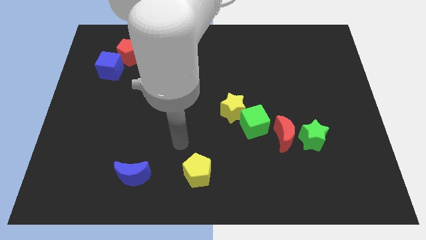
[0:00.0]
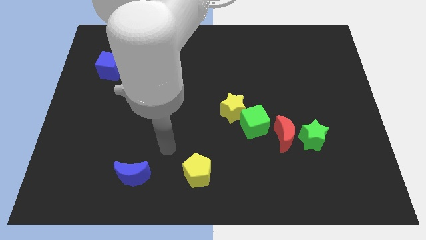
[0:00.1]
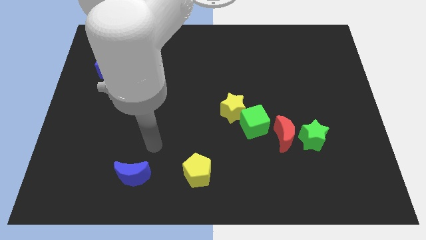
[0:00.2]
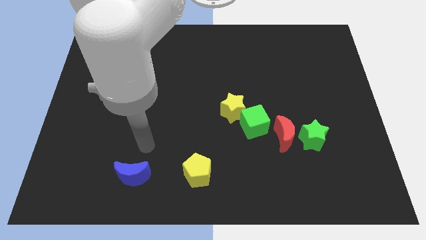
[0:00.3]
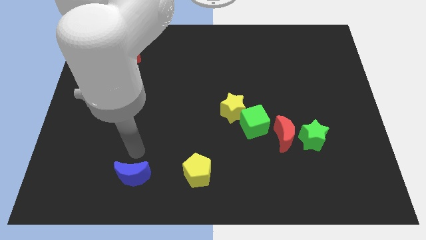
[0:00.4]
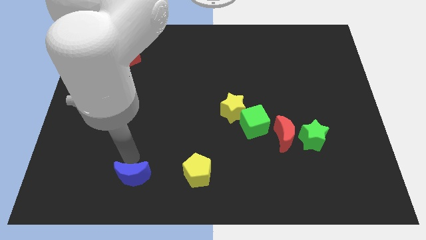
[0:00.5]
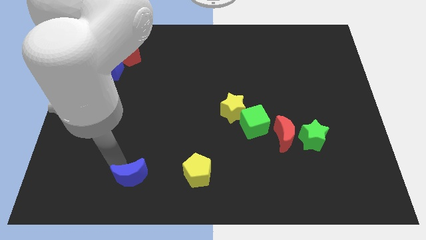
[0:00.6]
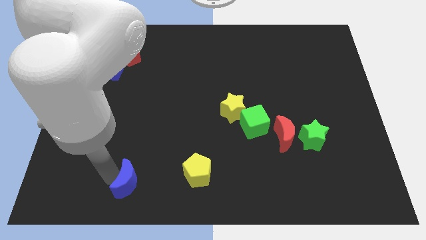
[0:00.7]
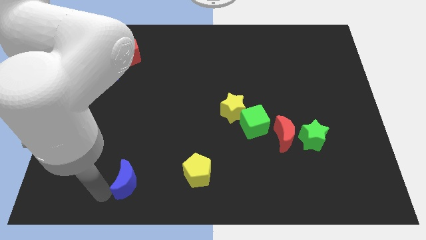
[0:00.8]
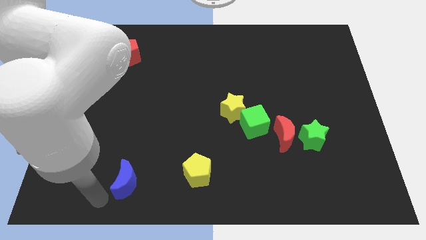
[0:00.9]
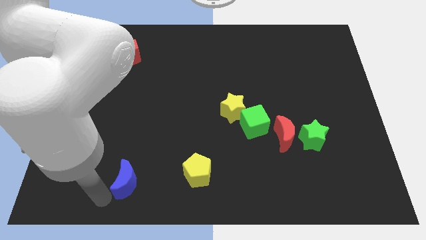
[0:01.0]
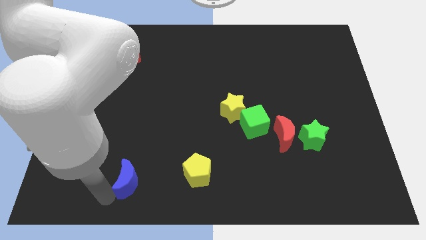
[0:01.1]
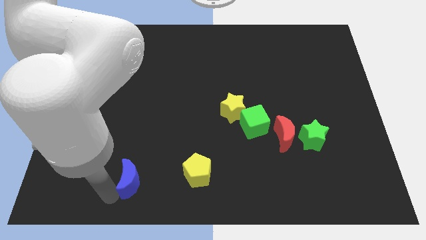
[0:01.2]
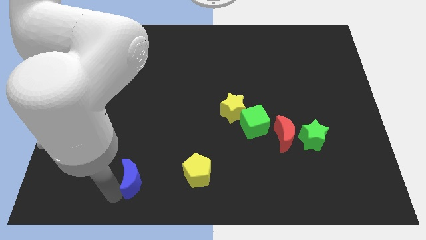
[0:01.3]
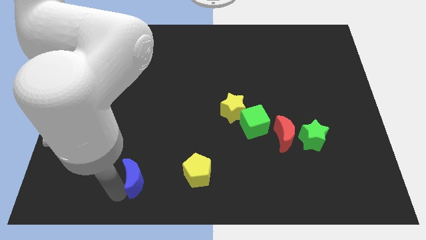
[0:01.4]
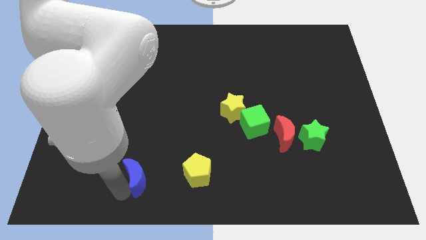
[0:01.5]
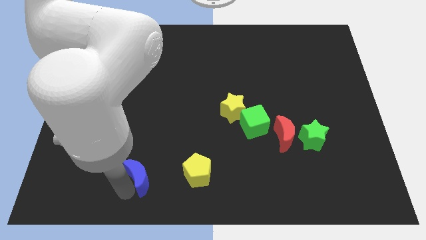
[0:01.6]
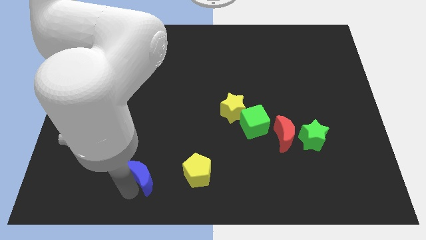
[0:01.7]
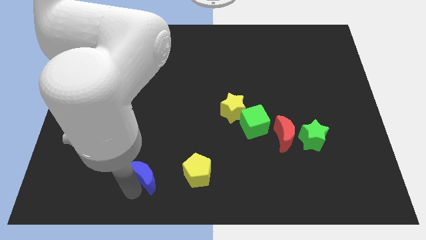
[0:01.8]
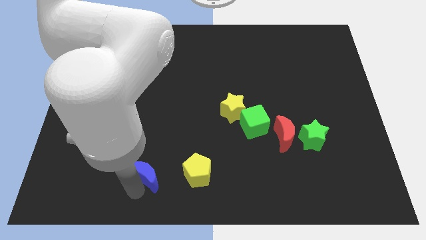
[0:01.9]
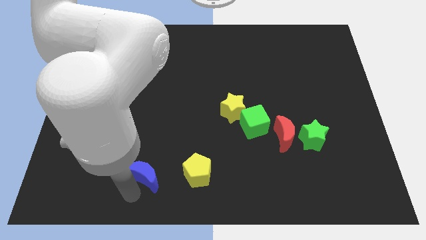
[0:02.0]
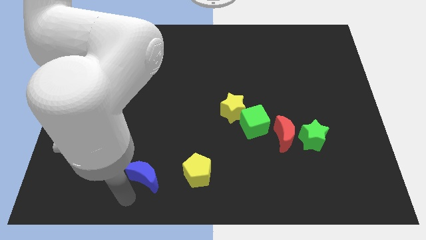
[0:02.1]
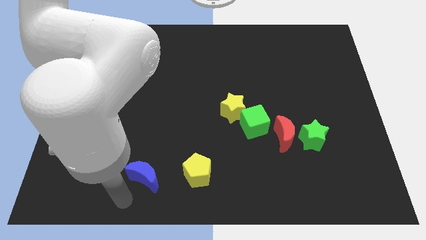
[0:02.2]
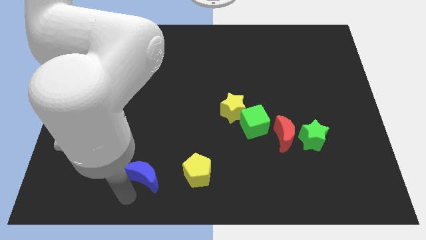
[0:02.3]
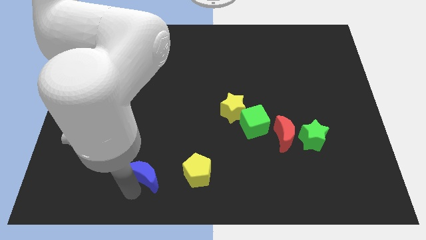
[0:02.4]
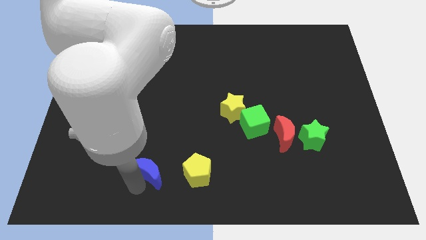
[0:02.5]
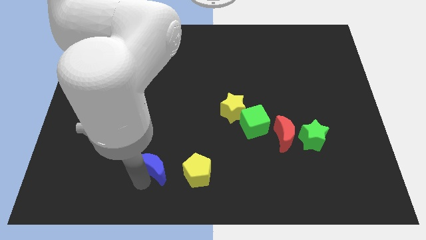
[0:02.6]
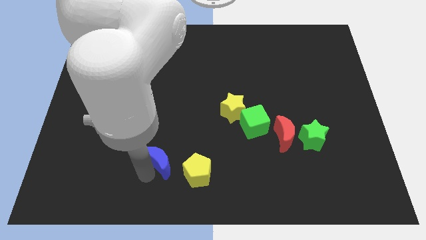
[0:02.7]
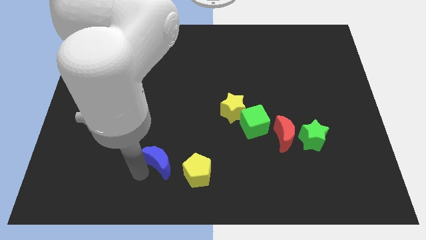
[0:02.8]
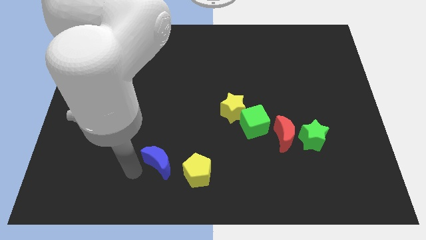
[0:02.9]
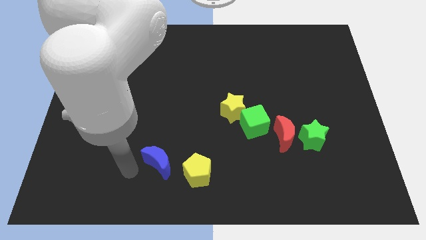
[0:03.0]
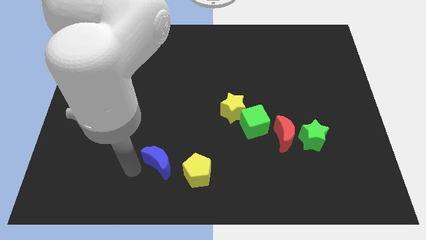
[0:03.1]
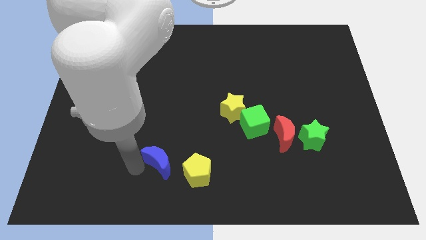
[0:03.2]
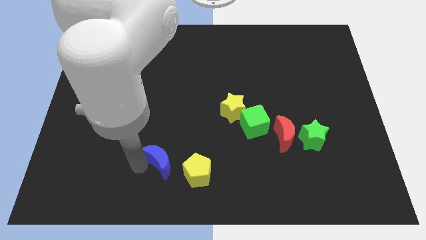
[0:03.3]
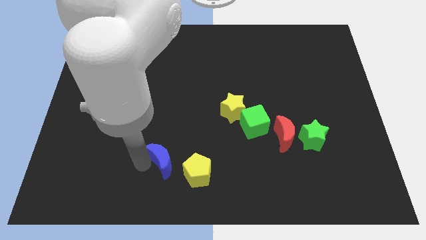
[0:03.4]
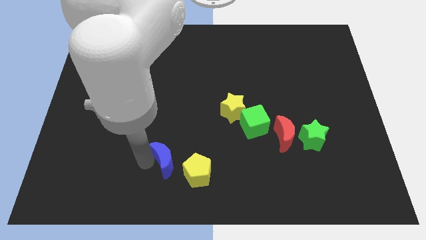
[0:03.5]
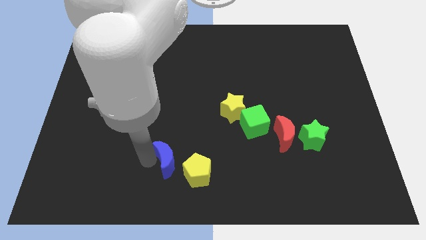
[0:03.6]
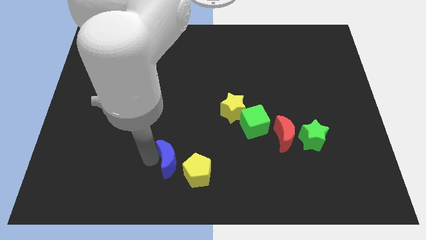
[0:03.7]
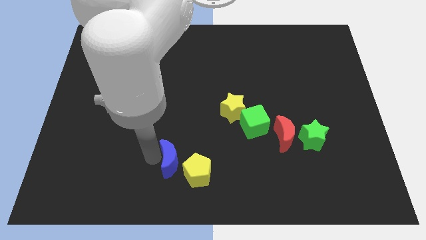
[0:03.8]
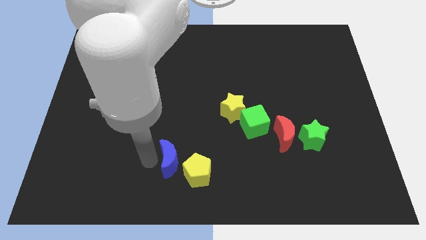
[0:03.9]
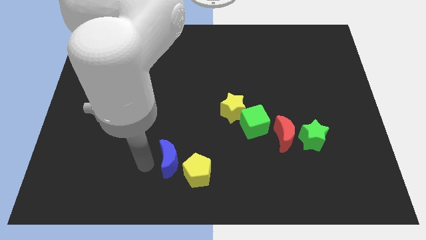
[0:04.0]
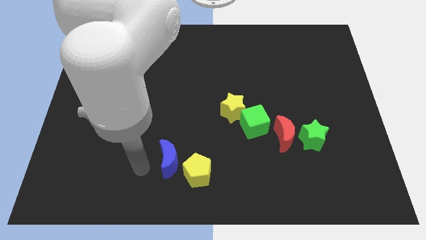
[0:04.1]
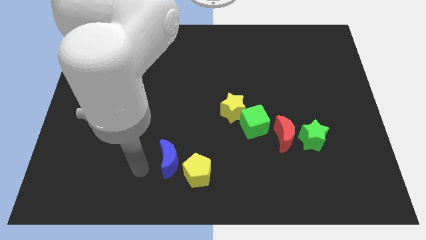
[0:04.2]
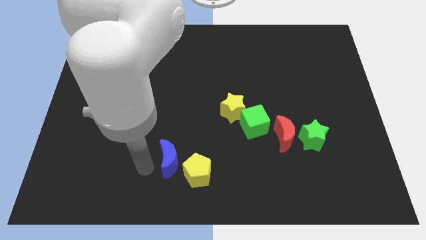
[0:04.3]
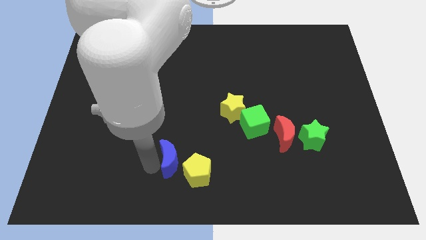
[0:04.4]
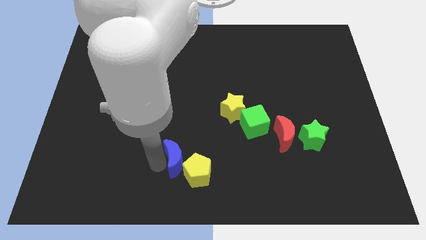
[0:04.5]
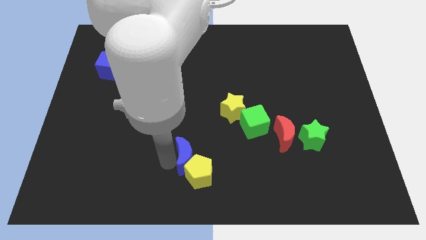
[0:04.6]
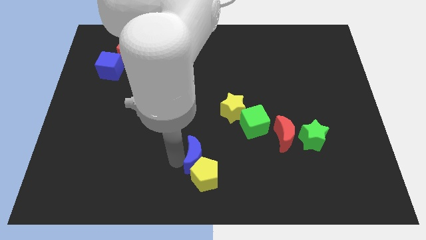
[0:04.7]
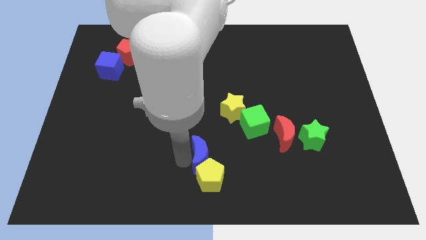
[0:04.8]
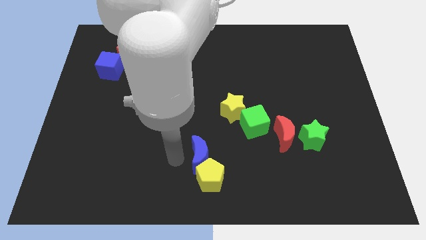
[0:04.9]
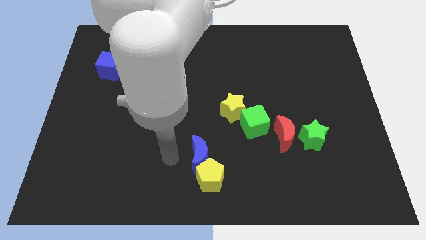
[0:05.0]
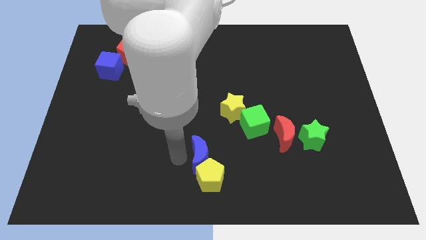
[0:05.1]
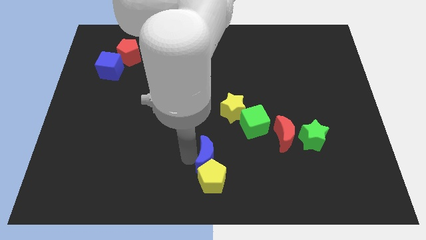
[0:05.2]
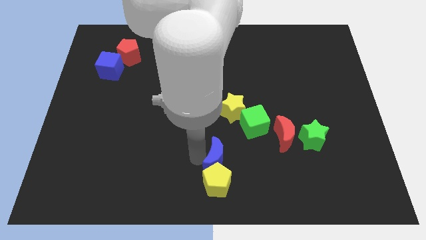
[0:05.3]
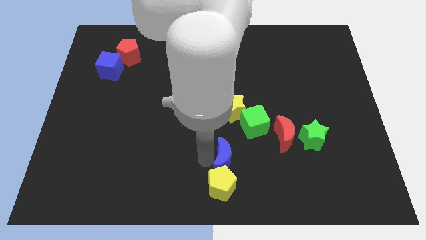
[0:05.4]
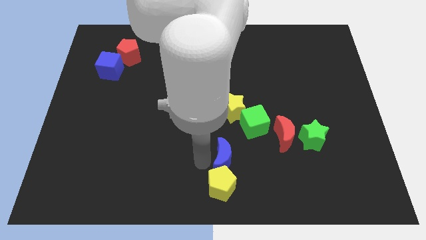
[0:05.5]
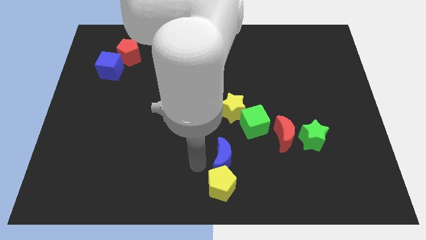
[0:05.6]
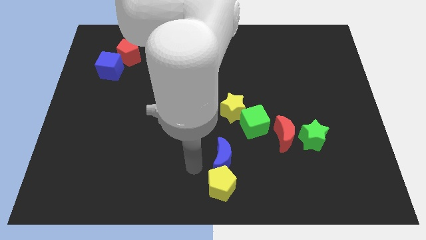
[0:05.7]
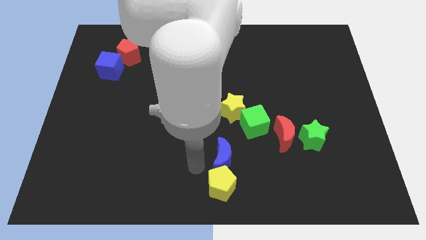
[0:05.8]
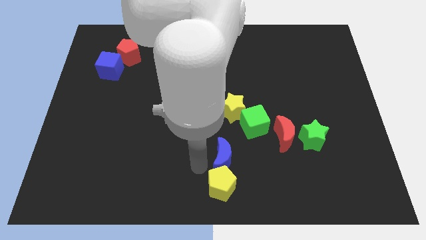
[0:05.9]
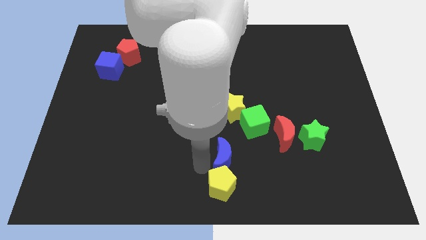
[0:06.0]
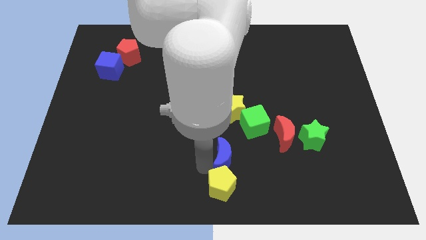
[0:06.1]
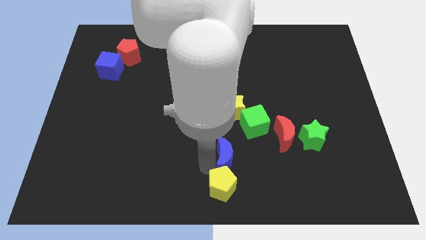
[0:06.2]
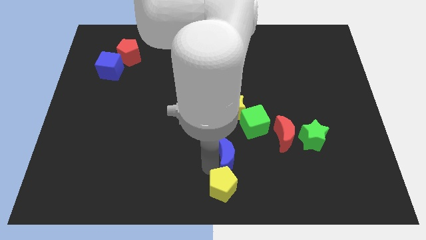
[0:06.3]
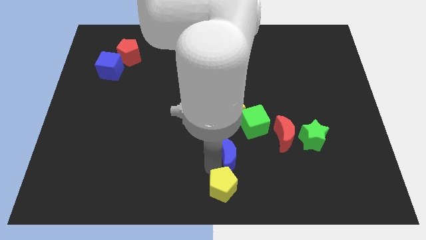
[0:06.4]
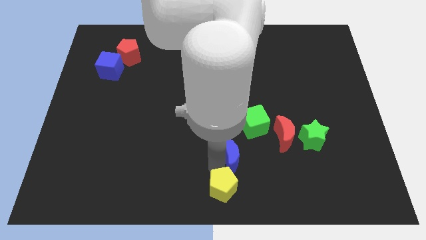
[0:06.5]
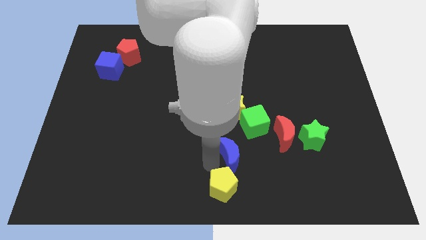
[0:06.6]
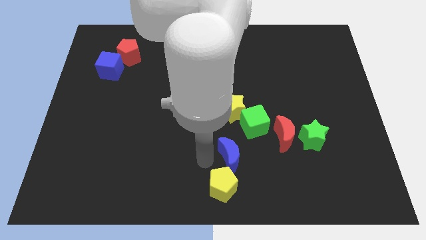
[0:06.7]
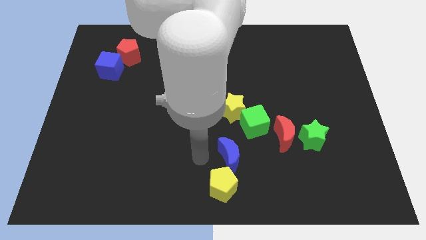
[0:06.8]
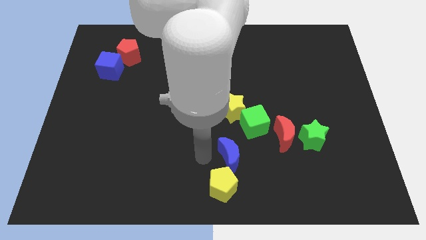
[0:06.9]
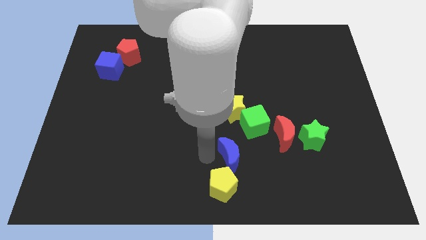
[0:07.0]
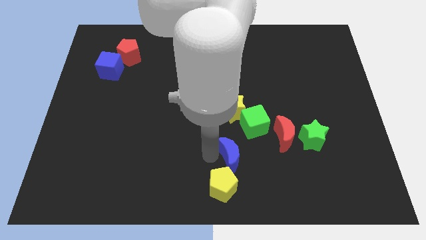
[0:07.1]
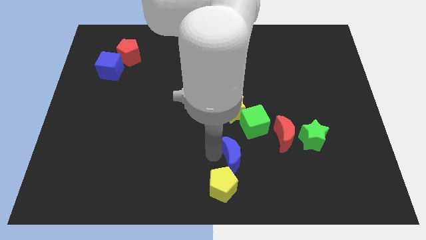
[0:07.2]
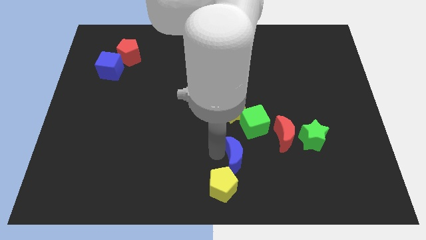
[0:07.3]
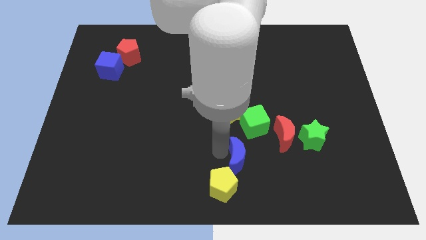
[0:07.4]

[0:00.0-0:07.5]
slide the blue moon diagonally down and to the left of the red moon
